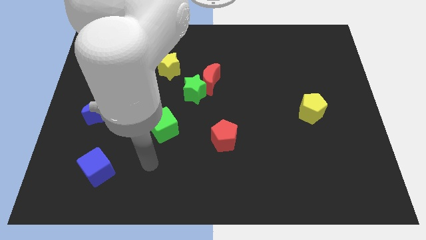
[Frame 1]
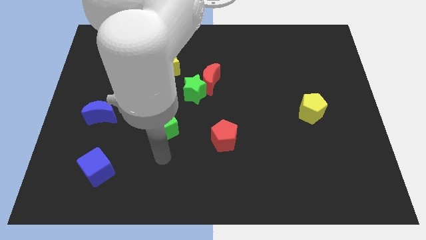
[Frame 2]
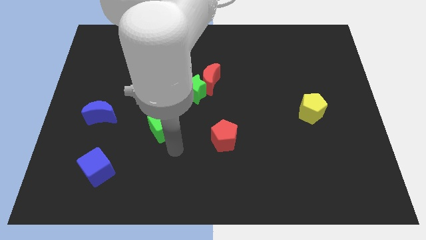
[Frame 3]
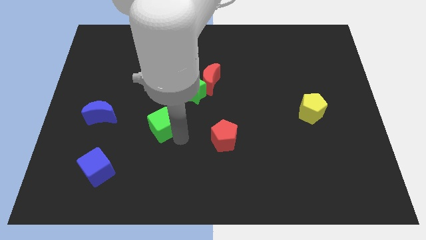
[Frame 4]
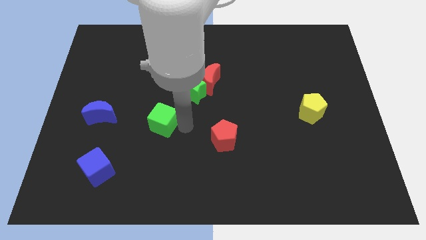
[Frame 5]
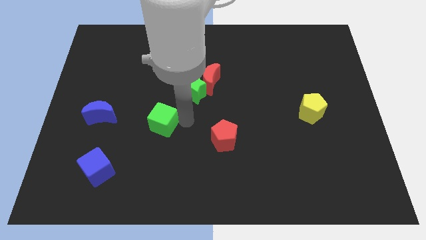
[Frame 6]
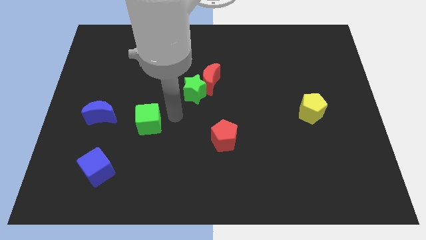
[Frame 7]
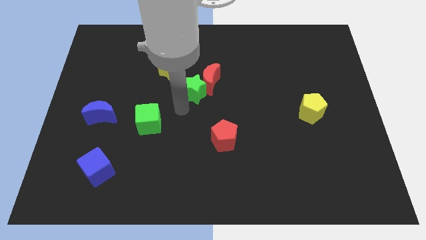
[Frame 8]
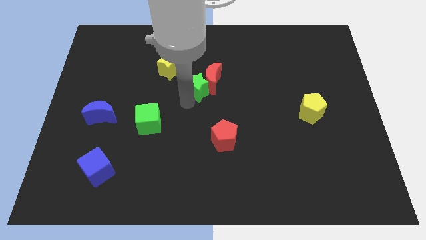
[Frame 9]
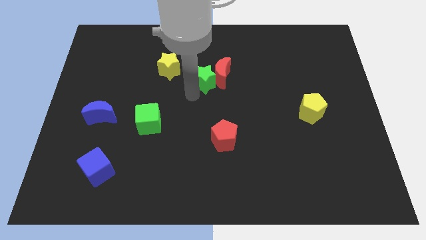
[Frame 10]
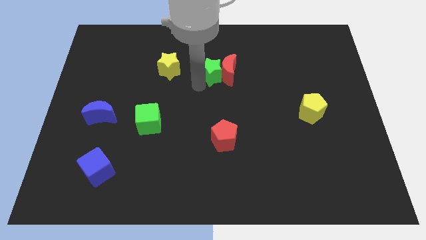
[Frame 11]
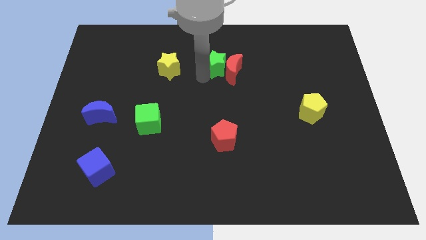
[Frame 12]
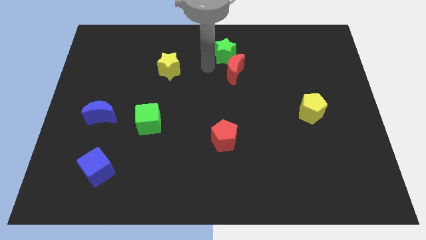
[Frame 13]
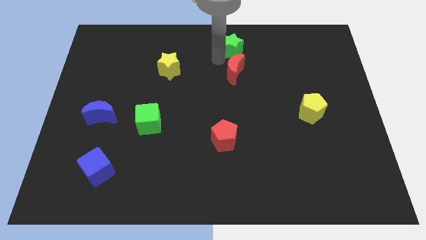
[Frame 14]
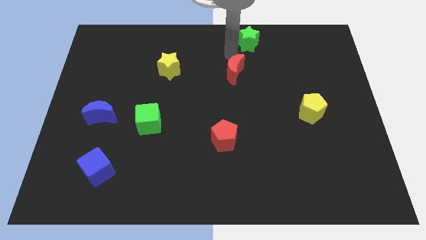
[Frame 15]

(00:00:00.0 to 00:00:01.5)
pull the red moon apart from the green star

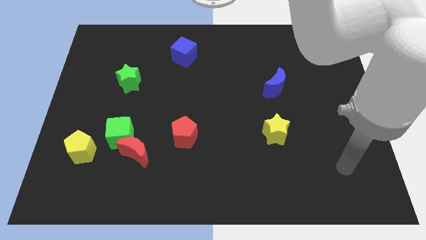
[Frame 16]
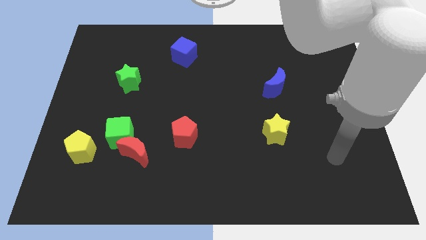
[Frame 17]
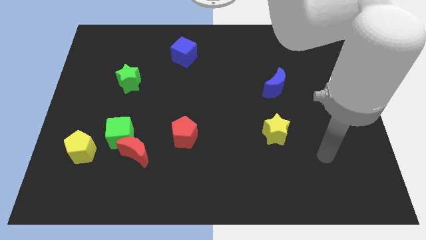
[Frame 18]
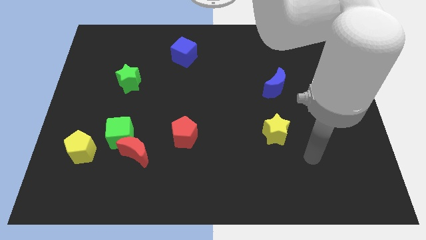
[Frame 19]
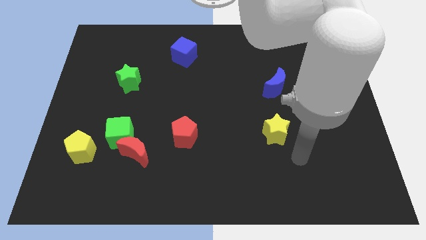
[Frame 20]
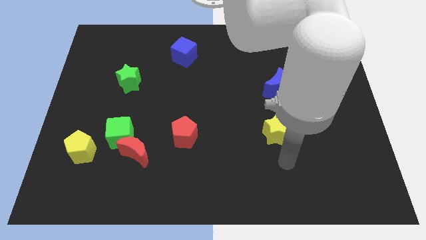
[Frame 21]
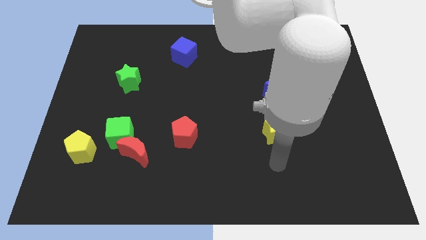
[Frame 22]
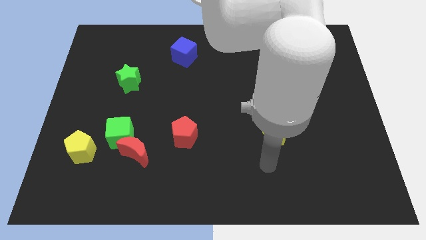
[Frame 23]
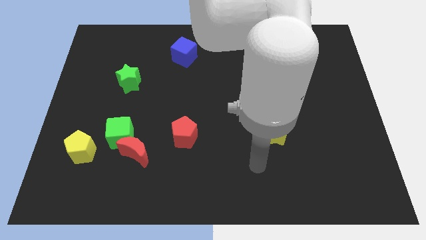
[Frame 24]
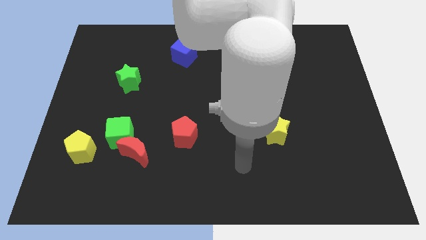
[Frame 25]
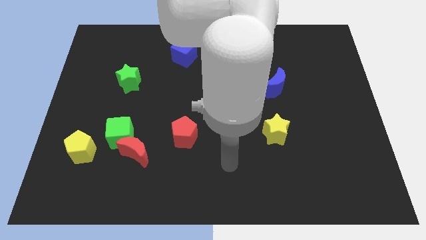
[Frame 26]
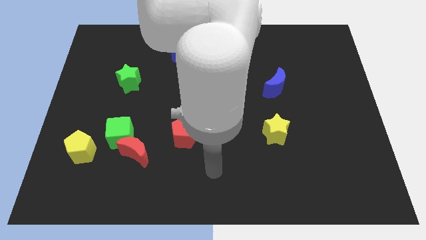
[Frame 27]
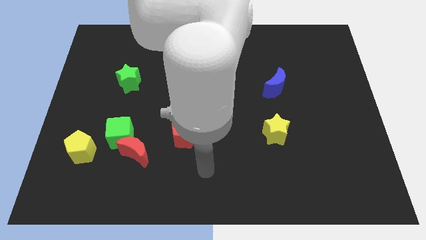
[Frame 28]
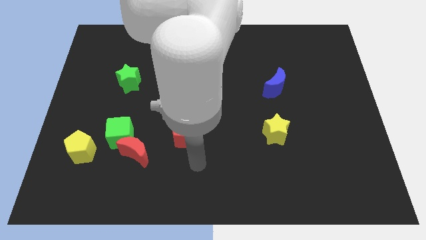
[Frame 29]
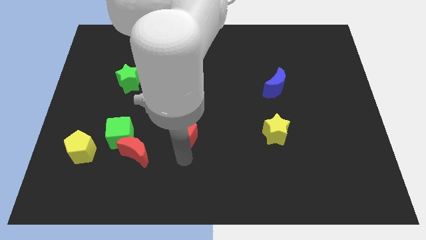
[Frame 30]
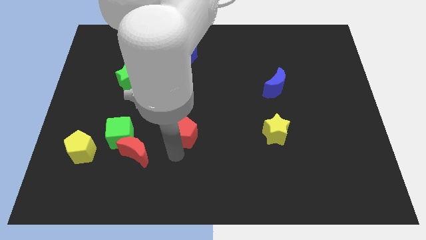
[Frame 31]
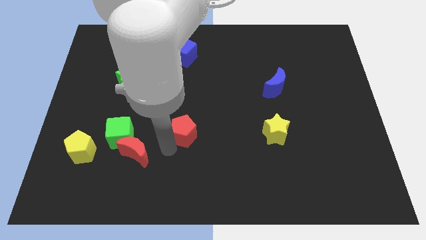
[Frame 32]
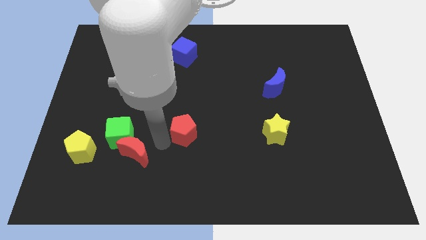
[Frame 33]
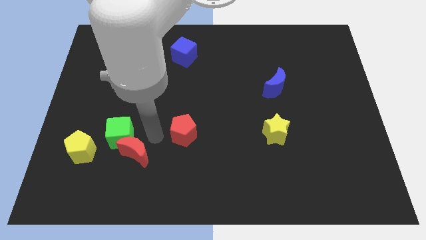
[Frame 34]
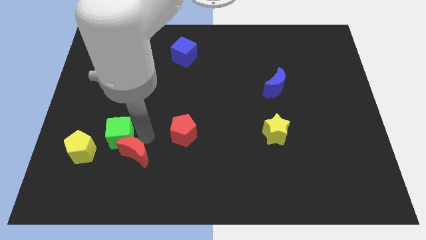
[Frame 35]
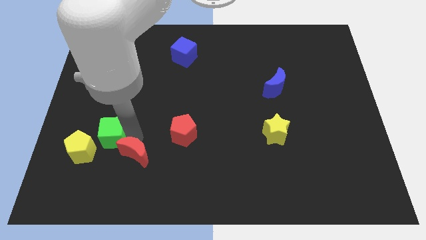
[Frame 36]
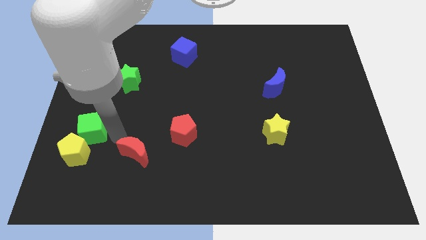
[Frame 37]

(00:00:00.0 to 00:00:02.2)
pull the red moon apart from the green cube

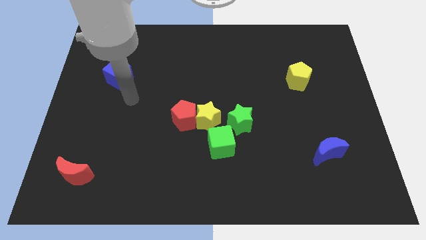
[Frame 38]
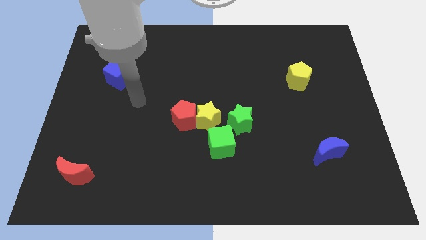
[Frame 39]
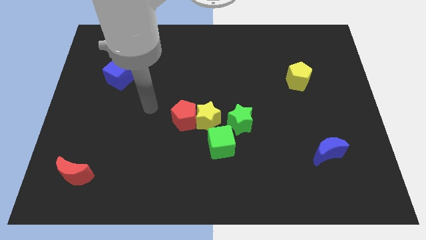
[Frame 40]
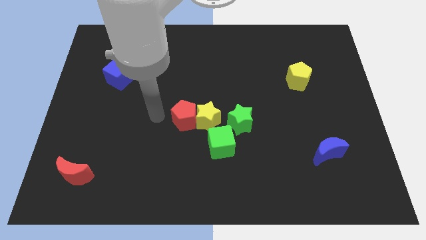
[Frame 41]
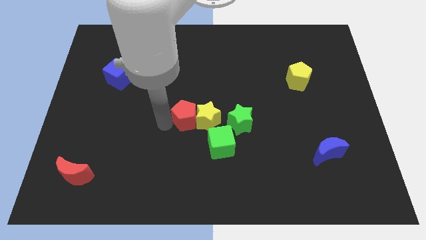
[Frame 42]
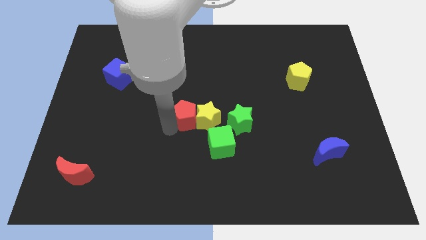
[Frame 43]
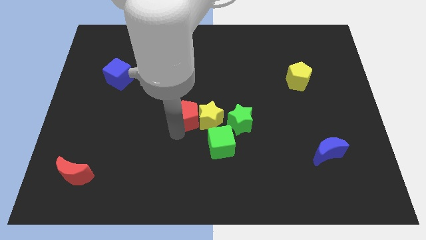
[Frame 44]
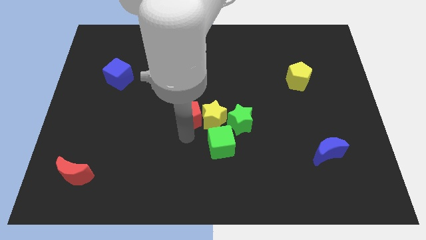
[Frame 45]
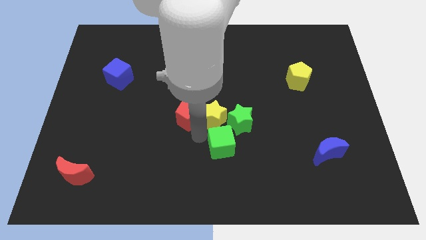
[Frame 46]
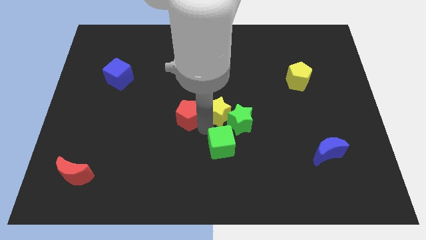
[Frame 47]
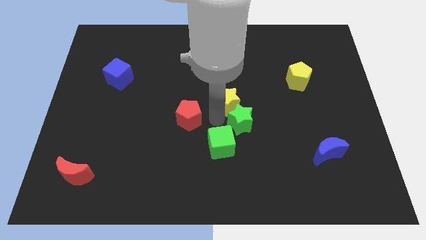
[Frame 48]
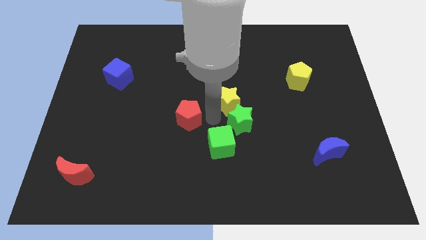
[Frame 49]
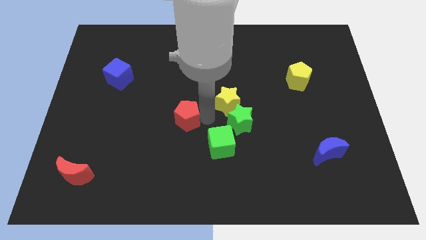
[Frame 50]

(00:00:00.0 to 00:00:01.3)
pull the red pentagon apart from the yellow star

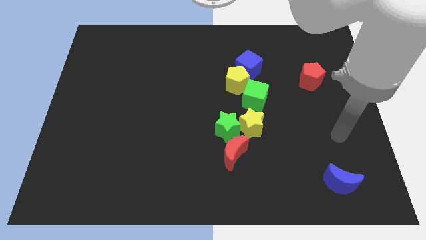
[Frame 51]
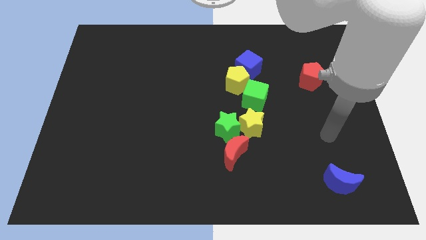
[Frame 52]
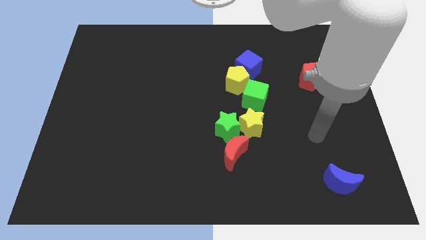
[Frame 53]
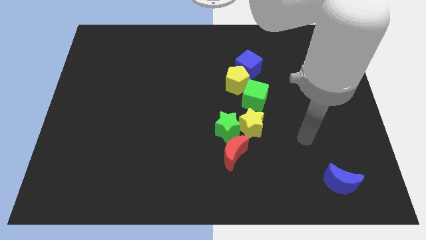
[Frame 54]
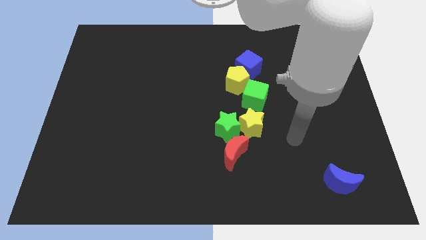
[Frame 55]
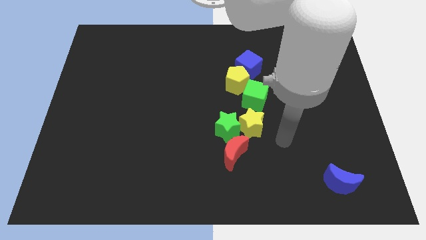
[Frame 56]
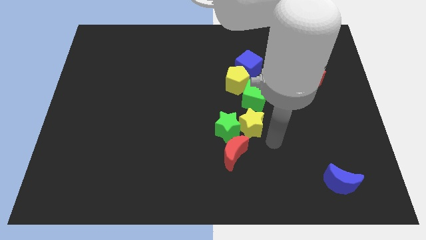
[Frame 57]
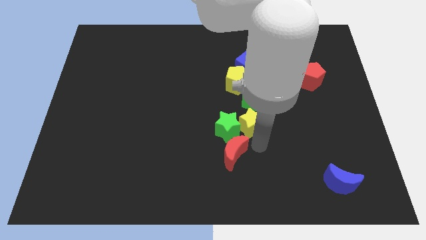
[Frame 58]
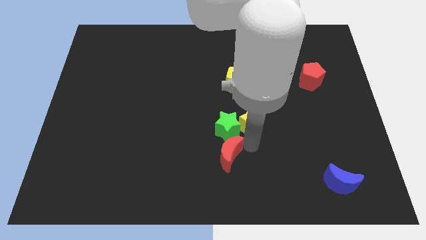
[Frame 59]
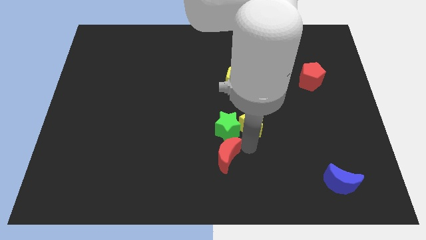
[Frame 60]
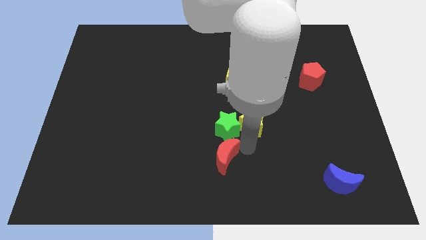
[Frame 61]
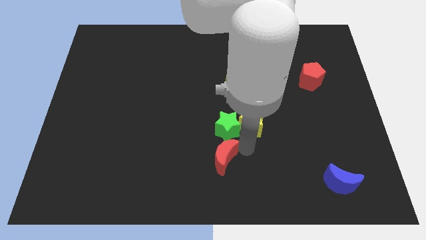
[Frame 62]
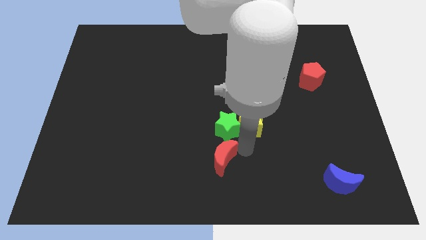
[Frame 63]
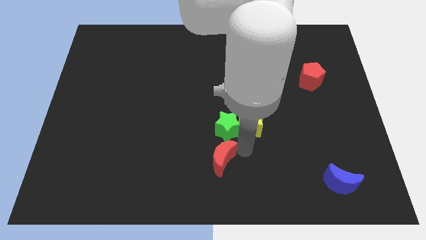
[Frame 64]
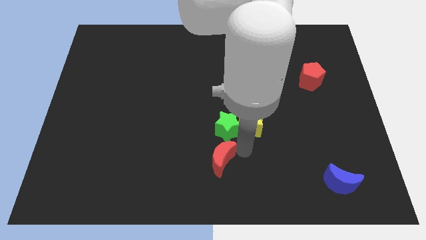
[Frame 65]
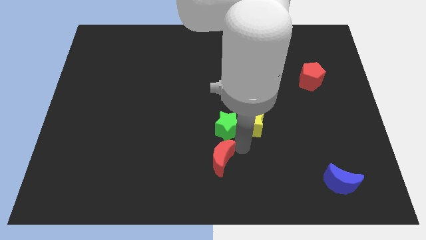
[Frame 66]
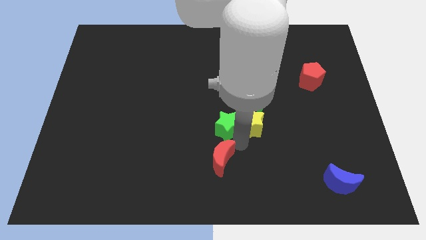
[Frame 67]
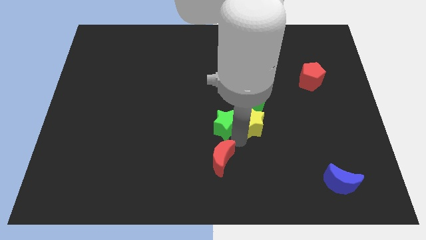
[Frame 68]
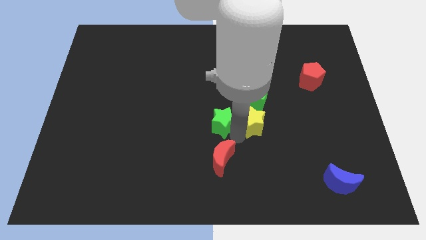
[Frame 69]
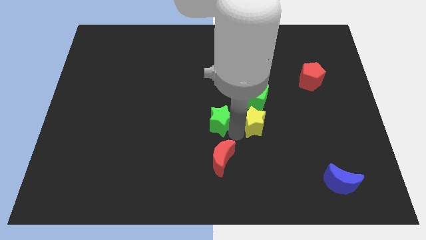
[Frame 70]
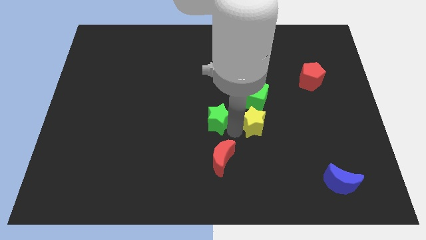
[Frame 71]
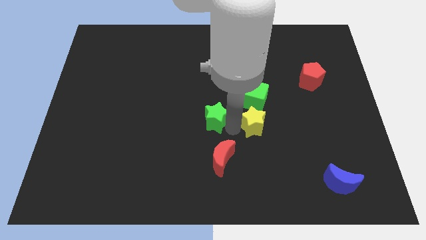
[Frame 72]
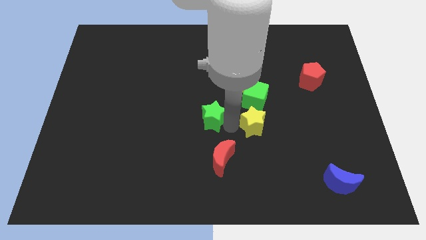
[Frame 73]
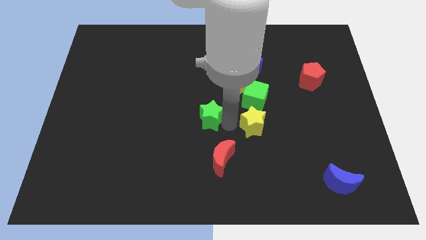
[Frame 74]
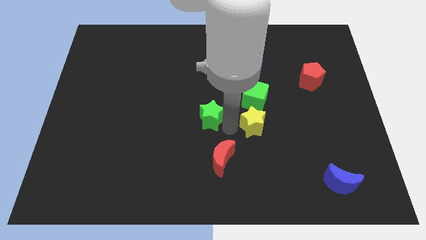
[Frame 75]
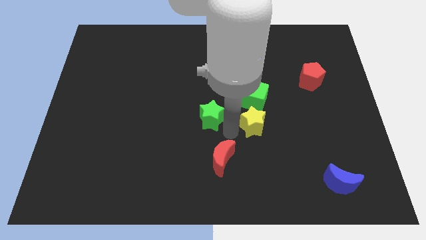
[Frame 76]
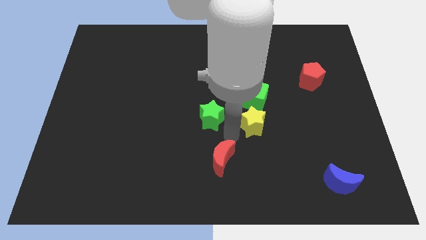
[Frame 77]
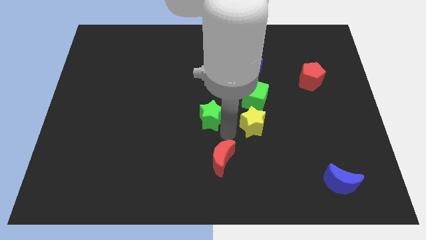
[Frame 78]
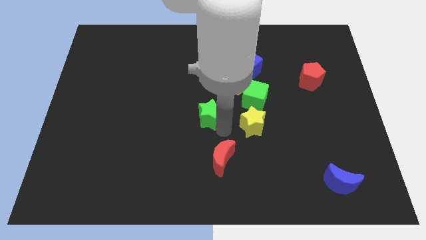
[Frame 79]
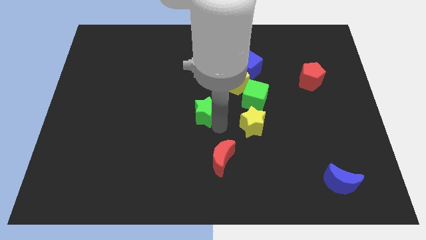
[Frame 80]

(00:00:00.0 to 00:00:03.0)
separate the green star from the yellow star and red moon

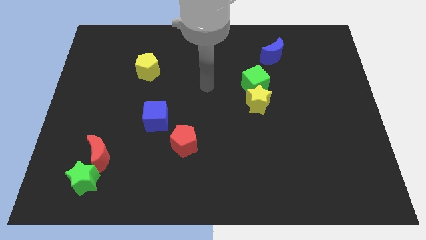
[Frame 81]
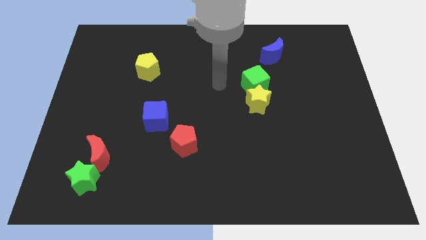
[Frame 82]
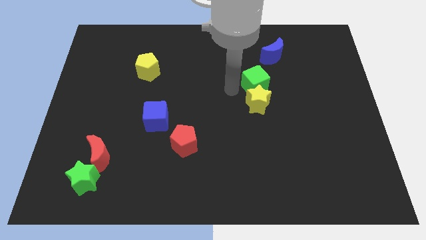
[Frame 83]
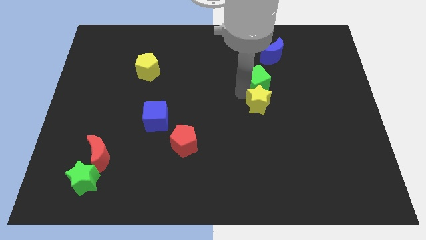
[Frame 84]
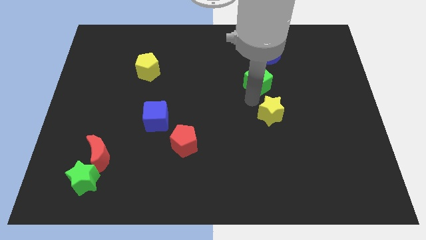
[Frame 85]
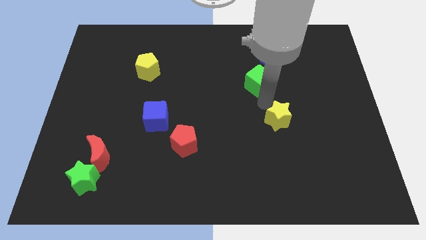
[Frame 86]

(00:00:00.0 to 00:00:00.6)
pull the green cube apart from the yellow star

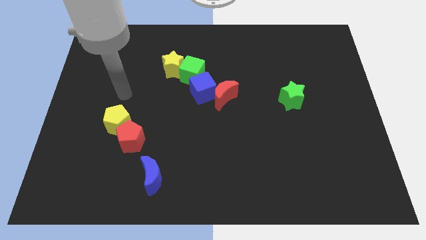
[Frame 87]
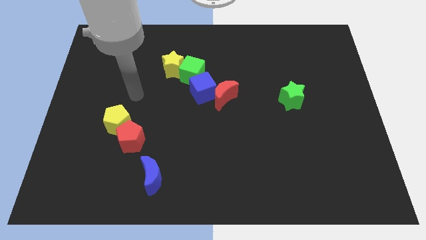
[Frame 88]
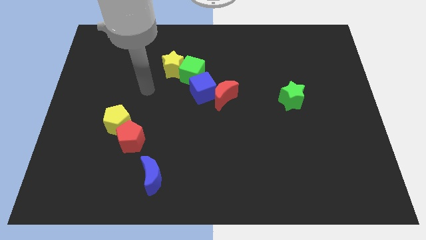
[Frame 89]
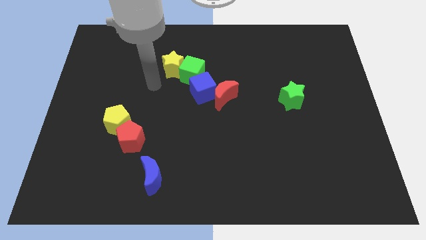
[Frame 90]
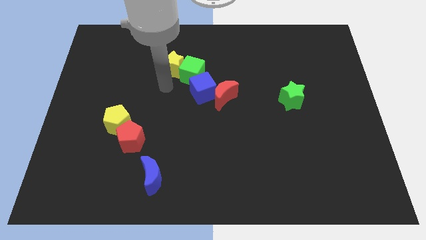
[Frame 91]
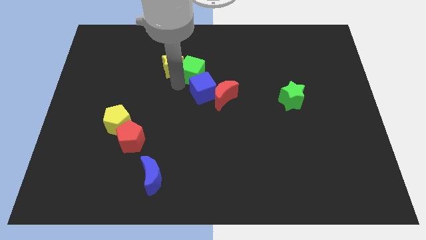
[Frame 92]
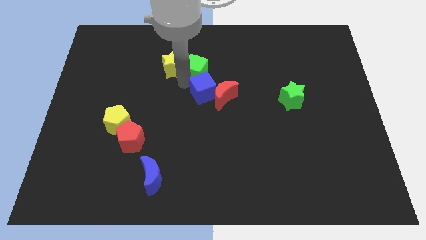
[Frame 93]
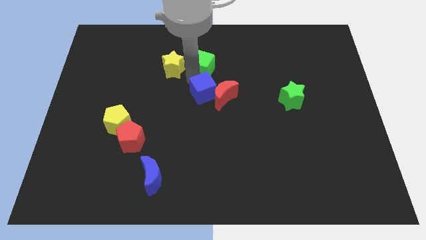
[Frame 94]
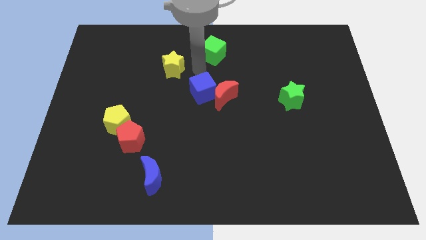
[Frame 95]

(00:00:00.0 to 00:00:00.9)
move the yellow star away from the green cube
